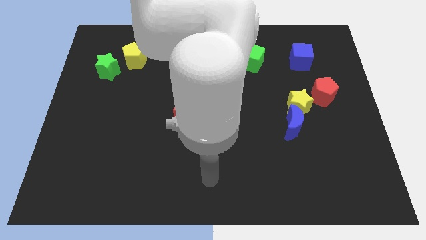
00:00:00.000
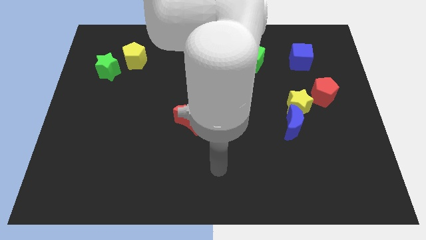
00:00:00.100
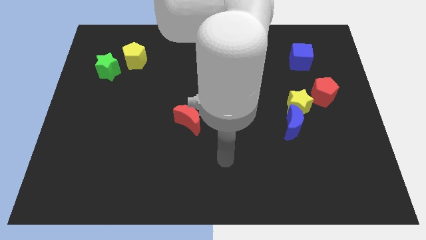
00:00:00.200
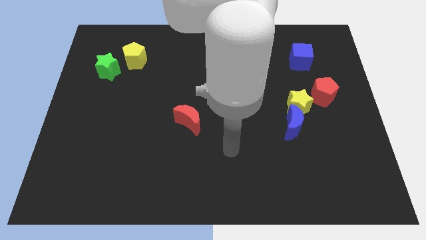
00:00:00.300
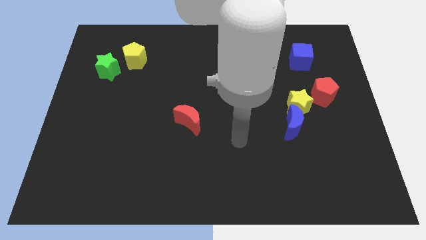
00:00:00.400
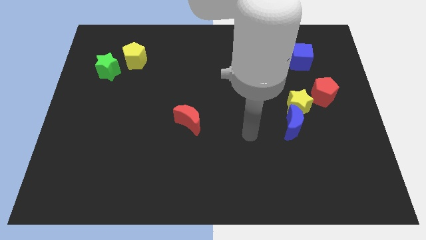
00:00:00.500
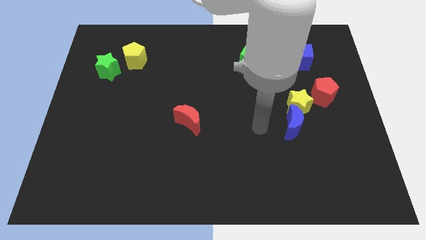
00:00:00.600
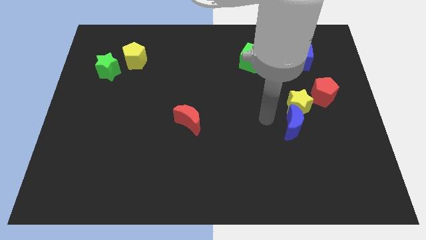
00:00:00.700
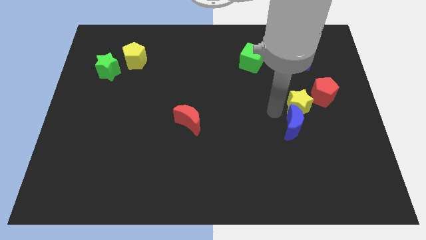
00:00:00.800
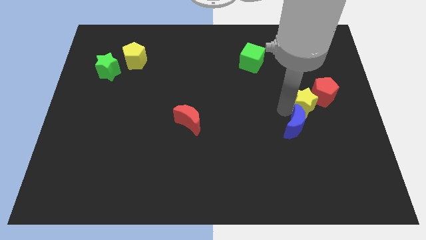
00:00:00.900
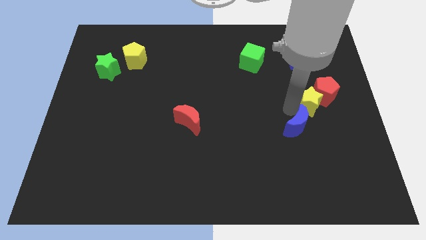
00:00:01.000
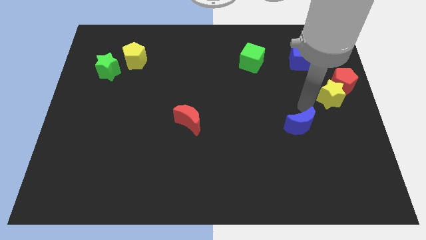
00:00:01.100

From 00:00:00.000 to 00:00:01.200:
move the blue moon away from the yellow star

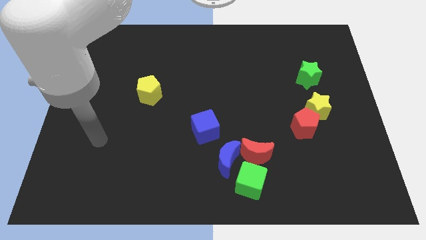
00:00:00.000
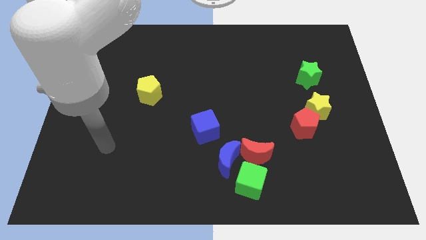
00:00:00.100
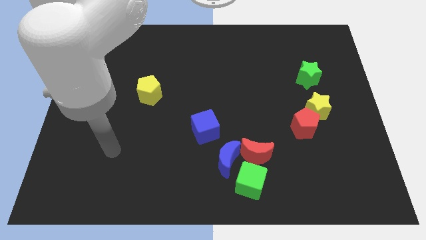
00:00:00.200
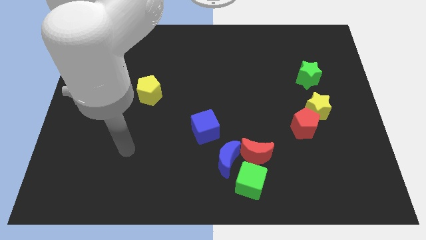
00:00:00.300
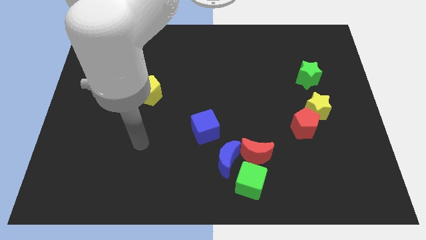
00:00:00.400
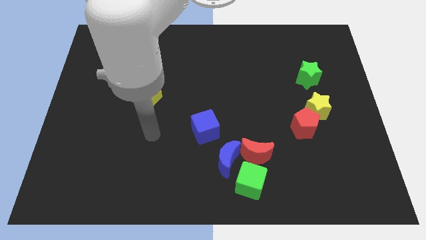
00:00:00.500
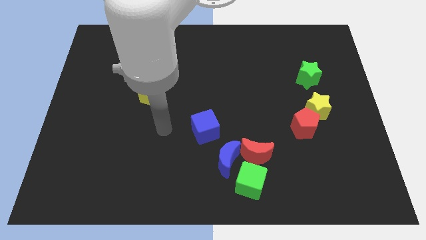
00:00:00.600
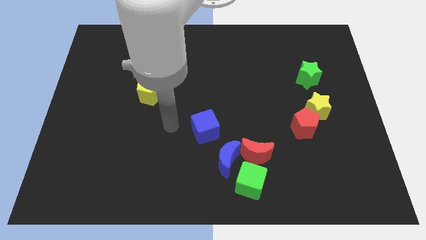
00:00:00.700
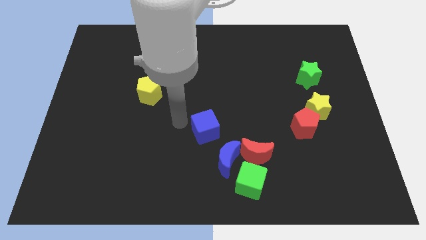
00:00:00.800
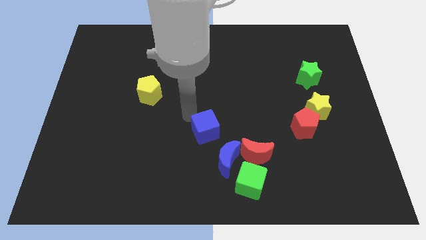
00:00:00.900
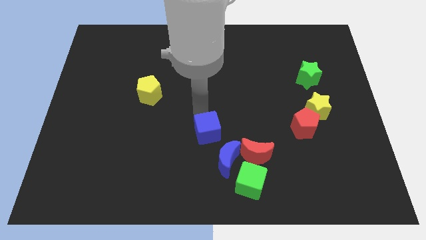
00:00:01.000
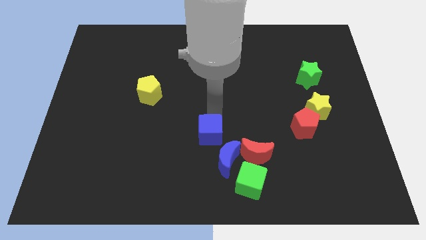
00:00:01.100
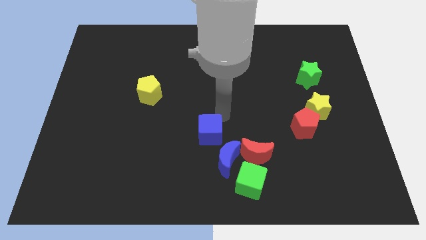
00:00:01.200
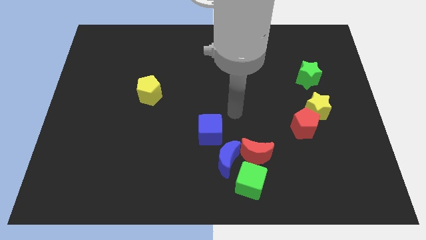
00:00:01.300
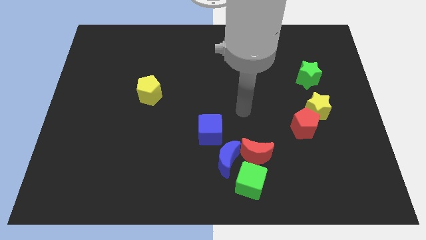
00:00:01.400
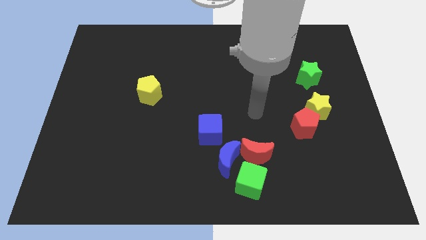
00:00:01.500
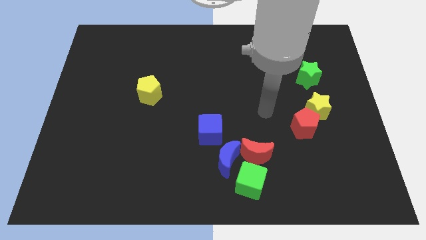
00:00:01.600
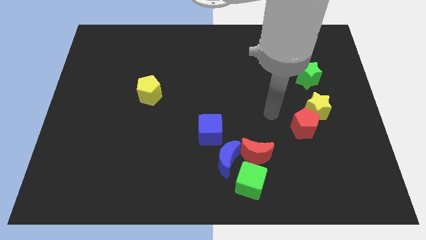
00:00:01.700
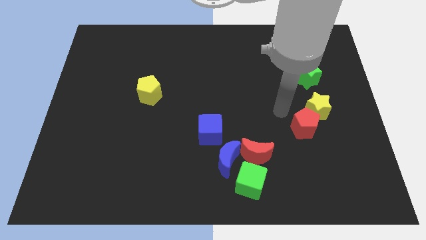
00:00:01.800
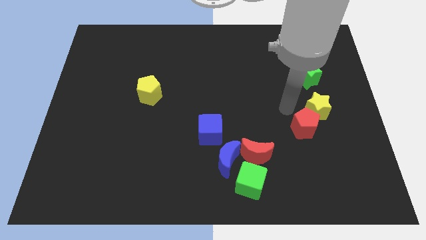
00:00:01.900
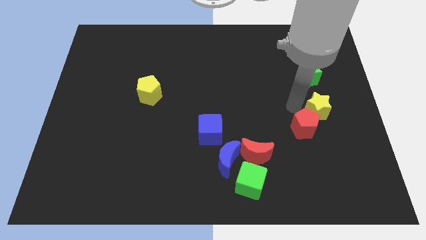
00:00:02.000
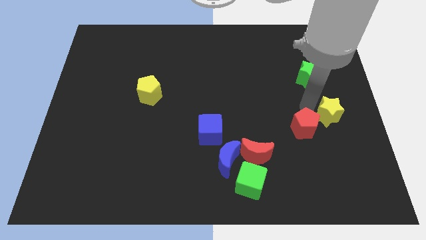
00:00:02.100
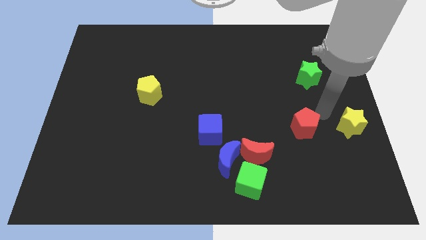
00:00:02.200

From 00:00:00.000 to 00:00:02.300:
pull the red pentagon apart from the yellow star

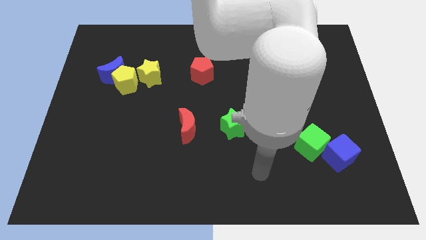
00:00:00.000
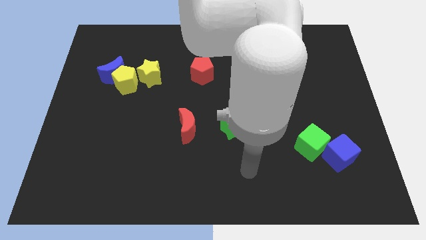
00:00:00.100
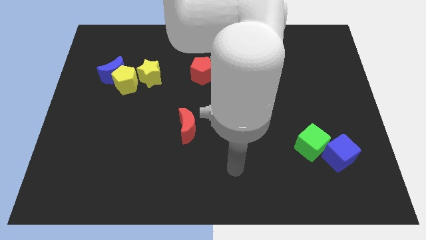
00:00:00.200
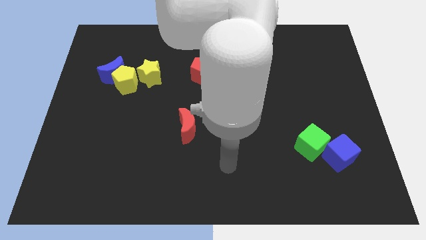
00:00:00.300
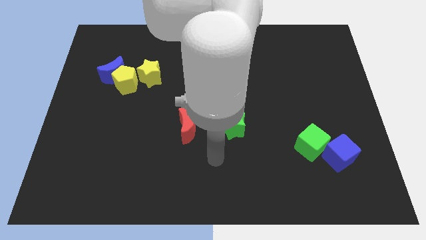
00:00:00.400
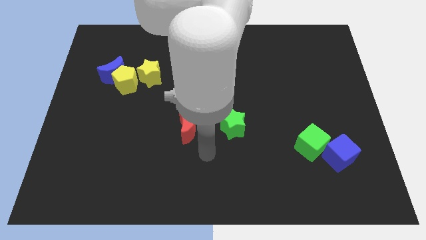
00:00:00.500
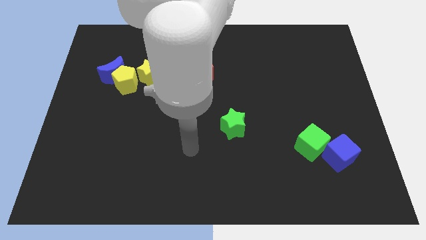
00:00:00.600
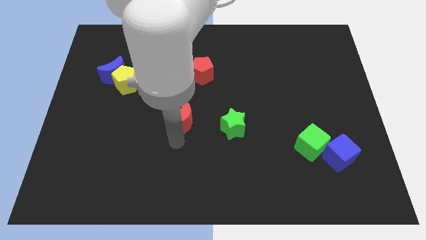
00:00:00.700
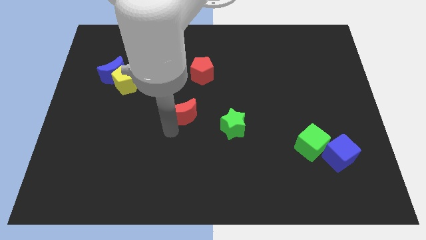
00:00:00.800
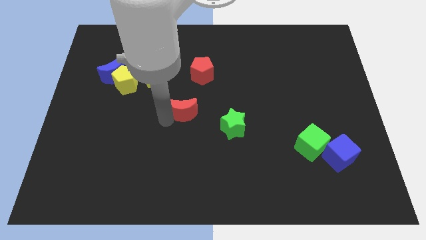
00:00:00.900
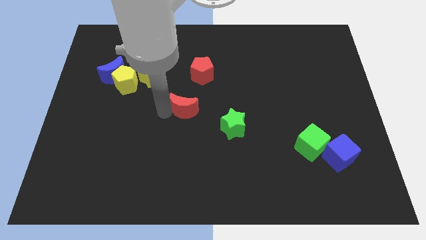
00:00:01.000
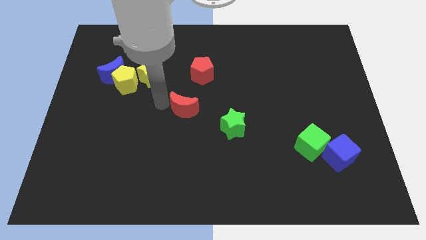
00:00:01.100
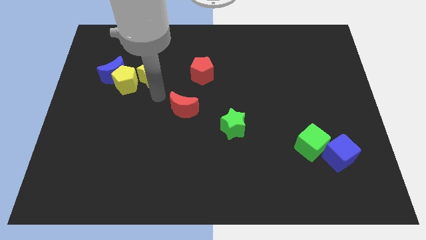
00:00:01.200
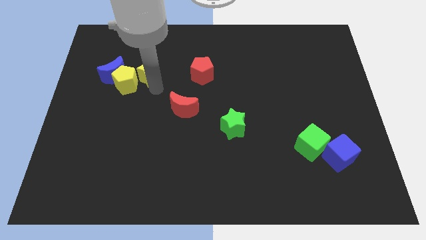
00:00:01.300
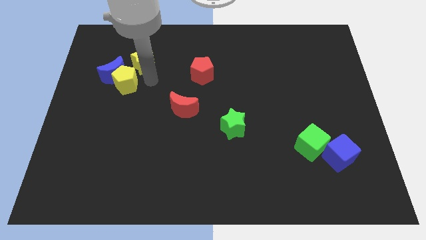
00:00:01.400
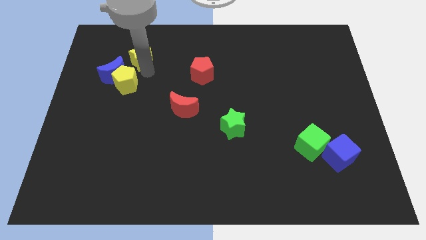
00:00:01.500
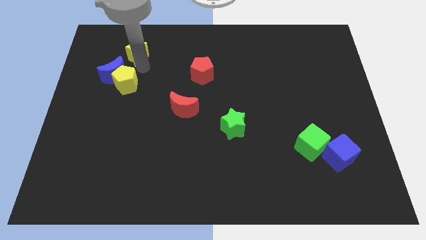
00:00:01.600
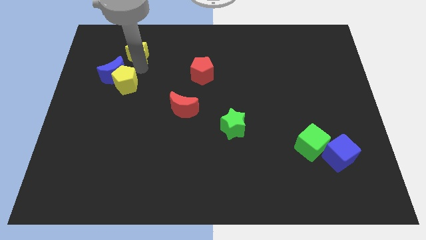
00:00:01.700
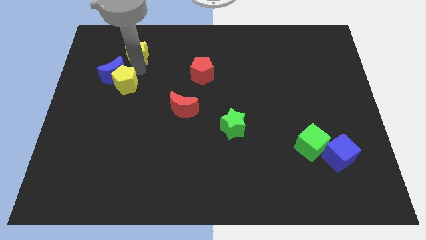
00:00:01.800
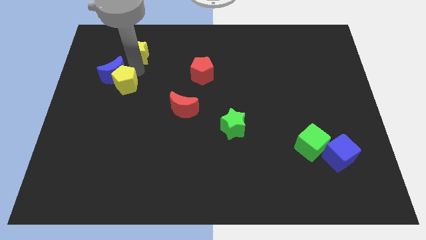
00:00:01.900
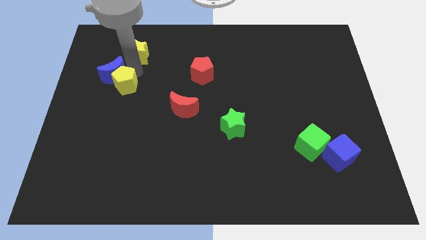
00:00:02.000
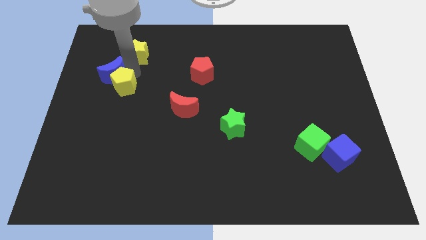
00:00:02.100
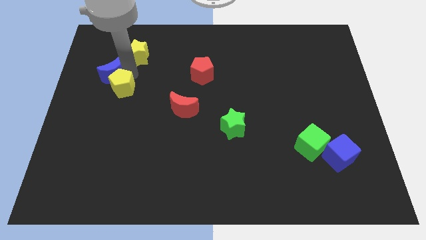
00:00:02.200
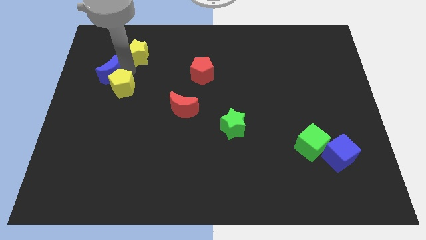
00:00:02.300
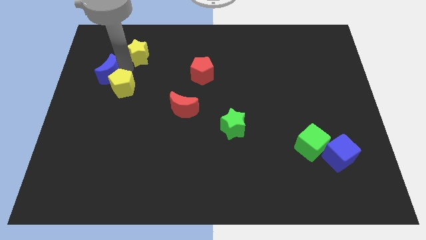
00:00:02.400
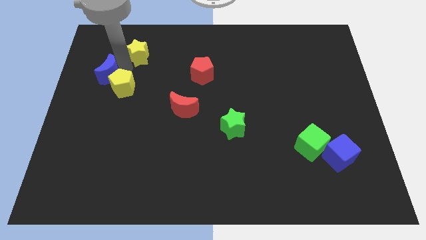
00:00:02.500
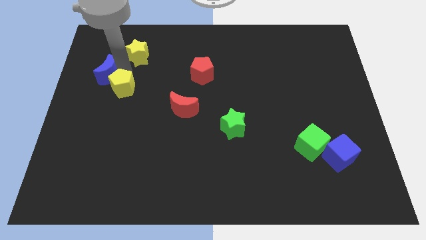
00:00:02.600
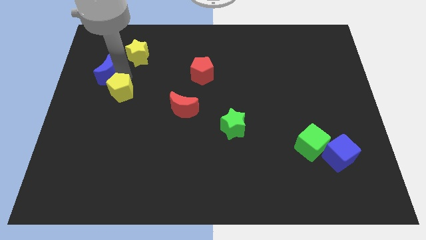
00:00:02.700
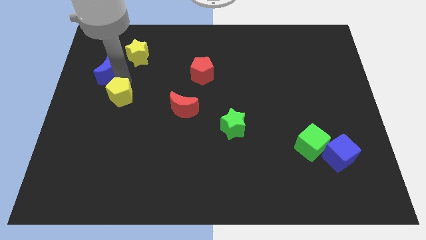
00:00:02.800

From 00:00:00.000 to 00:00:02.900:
pull the yellow pentagon apart from the blue moon and yellow star

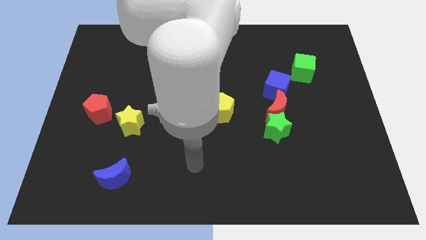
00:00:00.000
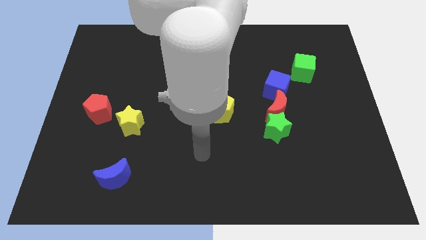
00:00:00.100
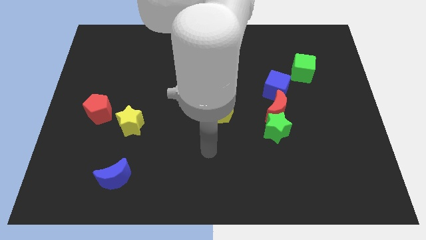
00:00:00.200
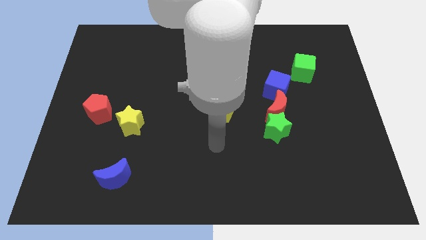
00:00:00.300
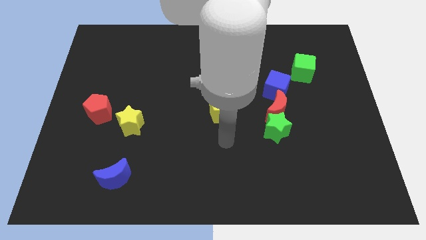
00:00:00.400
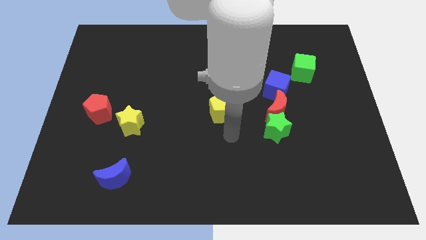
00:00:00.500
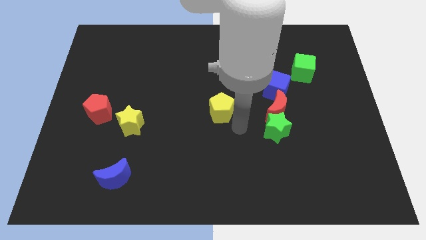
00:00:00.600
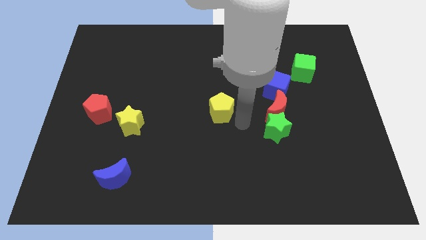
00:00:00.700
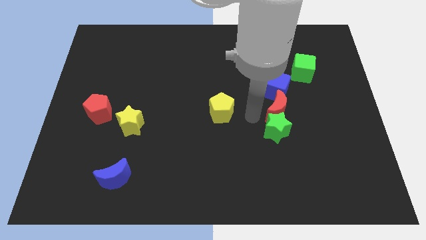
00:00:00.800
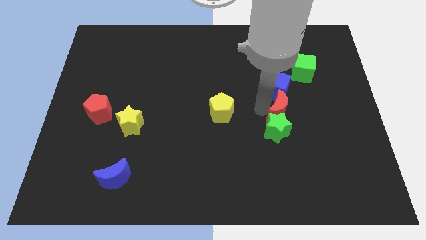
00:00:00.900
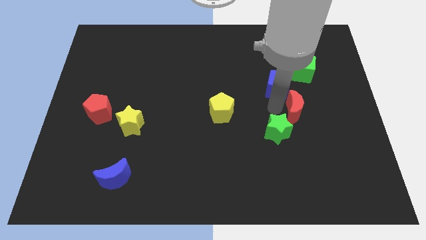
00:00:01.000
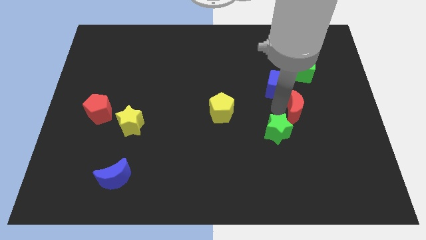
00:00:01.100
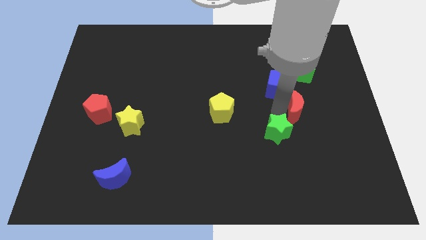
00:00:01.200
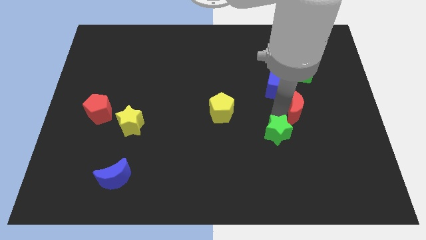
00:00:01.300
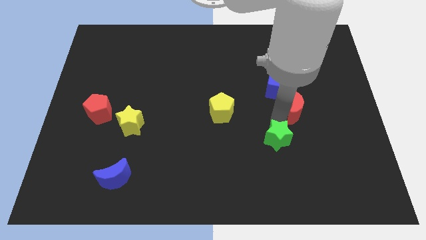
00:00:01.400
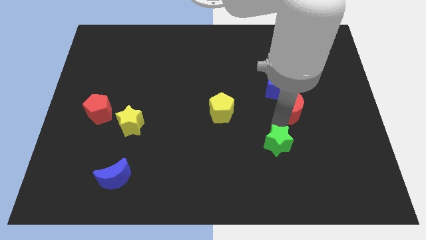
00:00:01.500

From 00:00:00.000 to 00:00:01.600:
pull the green star apart from the red moon

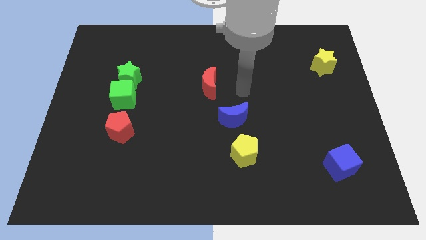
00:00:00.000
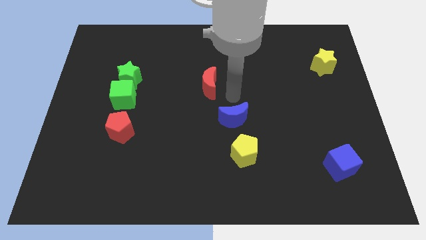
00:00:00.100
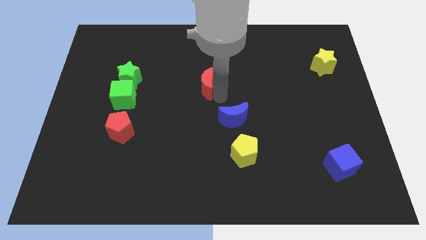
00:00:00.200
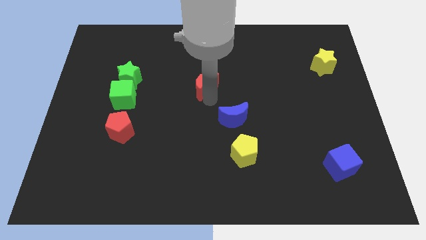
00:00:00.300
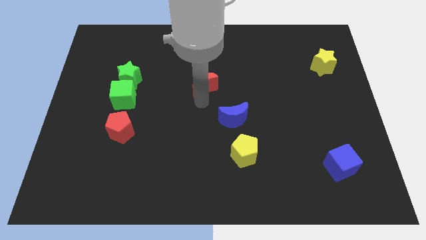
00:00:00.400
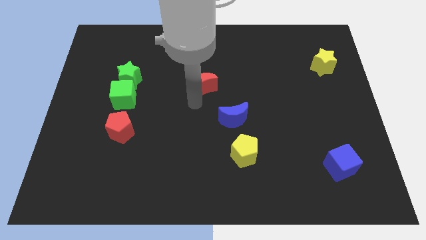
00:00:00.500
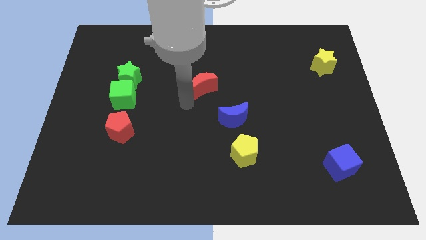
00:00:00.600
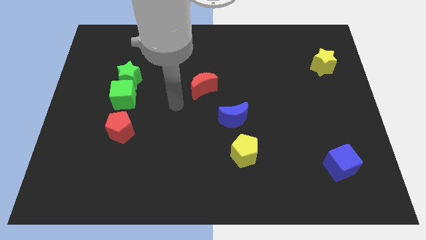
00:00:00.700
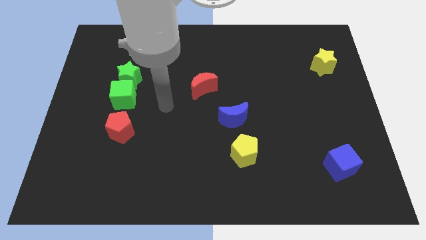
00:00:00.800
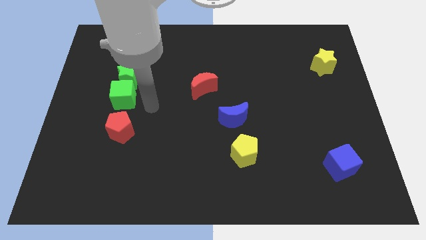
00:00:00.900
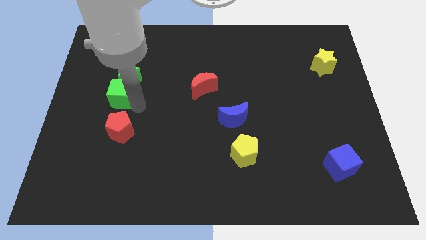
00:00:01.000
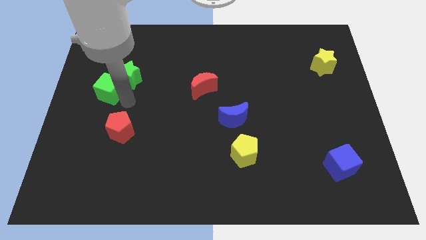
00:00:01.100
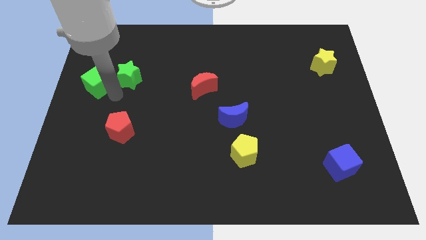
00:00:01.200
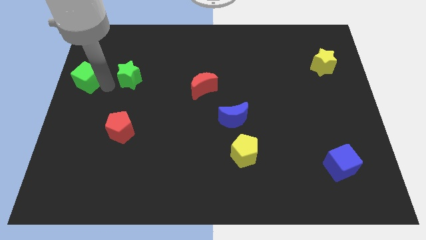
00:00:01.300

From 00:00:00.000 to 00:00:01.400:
move the green star away from the green cube
